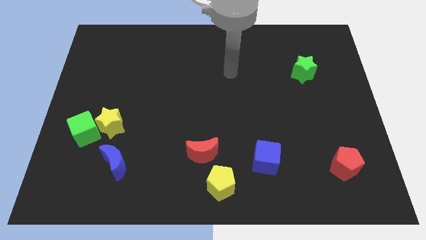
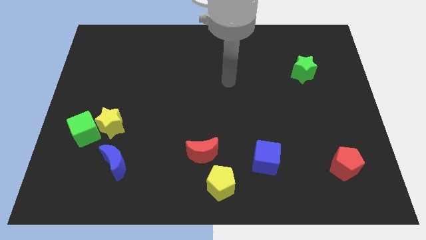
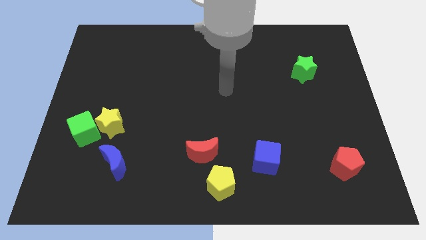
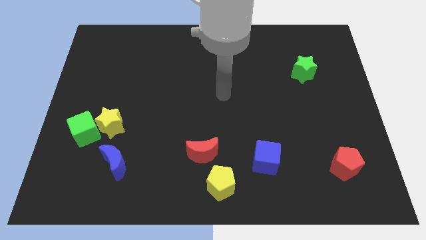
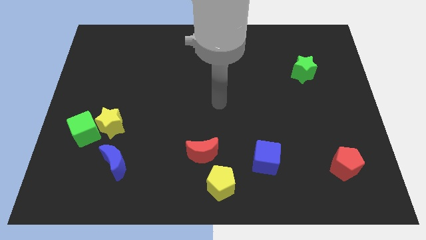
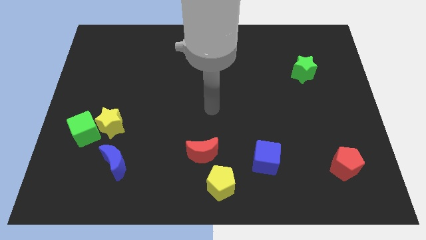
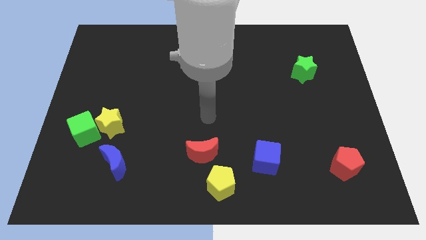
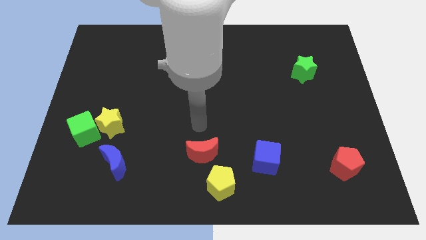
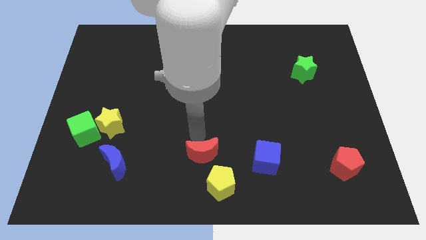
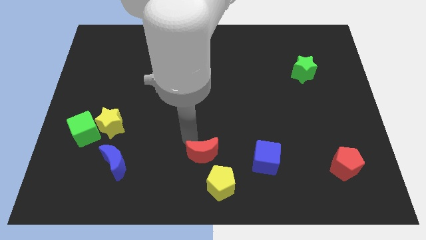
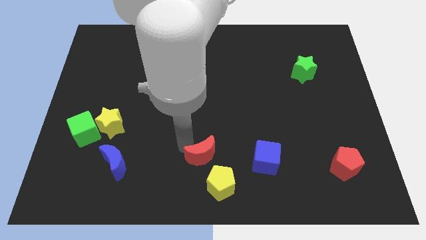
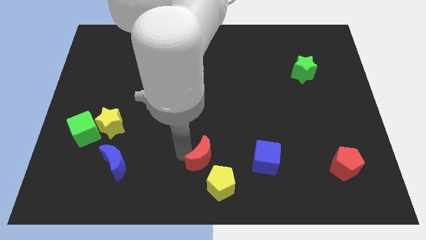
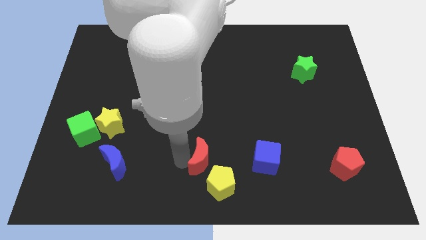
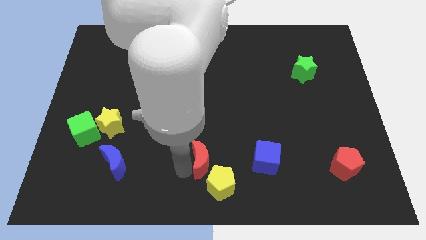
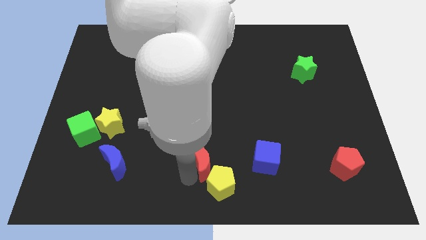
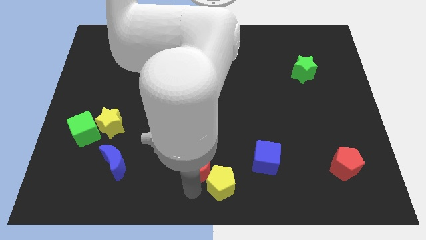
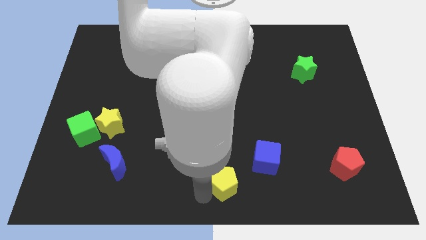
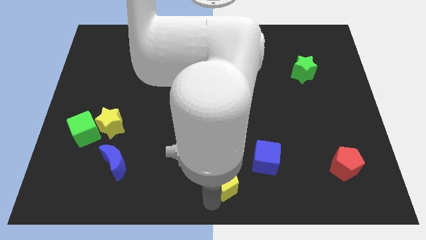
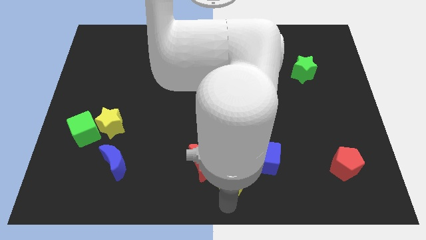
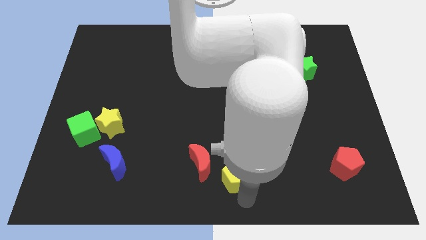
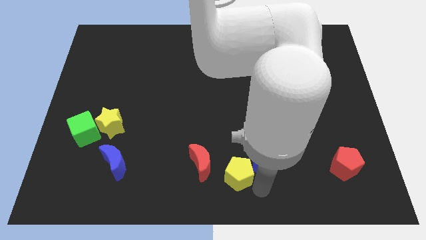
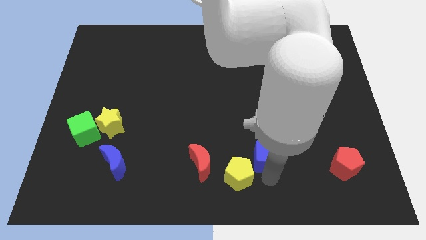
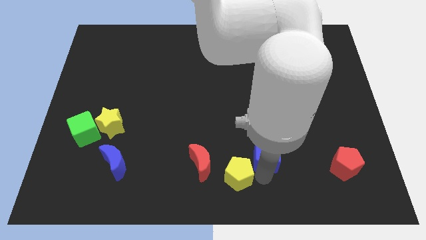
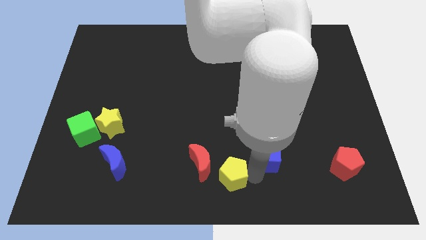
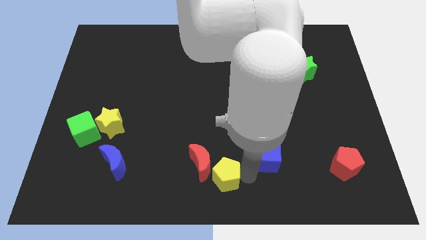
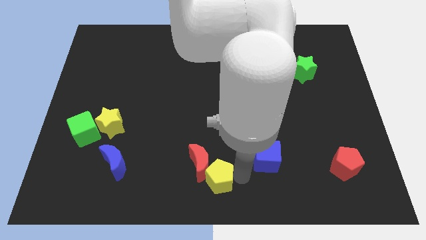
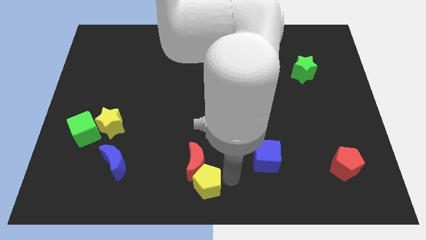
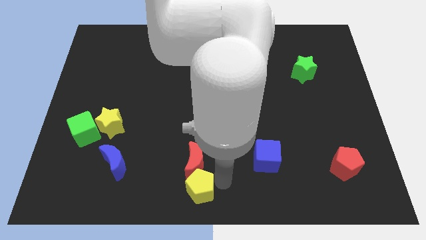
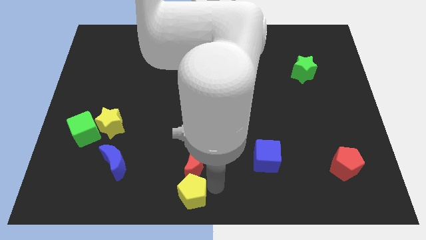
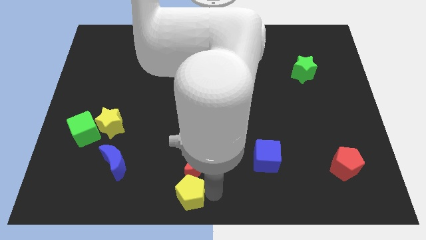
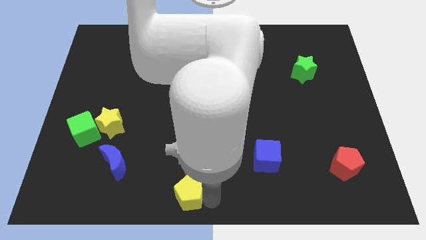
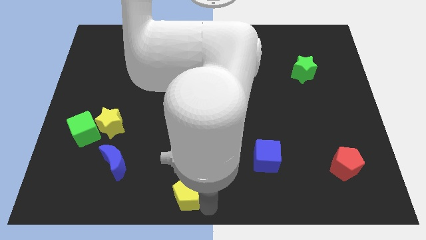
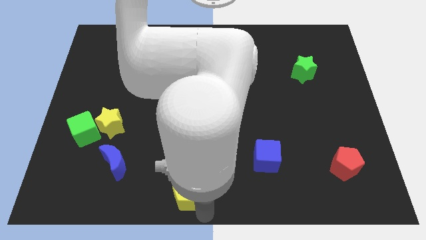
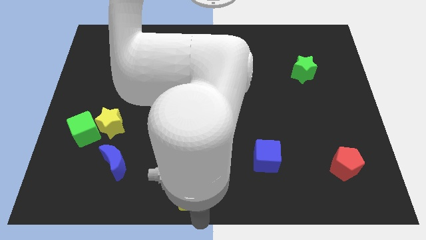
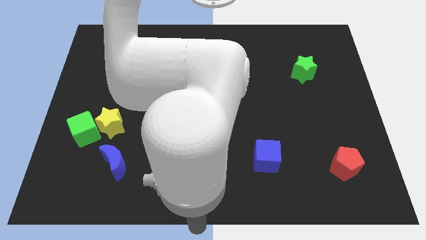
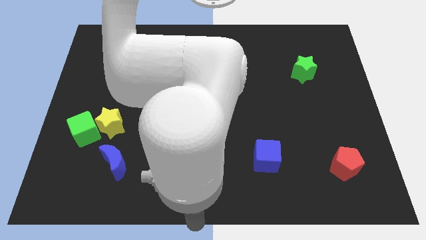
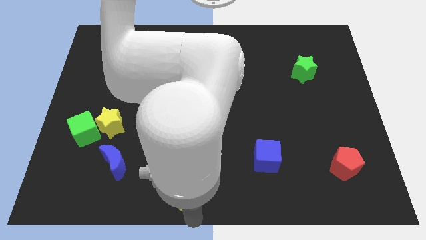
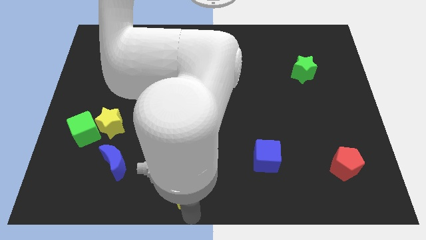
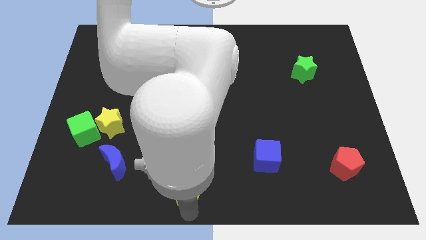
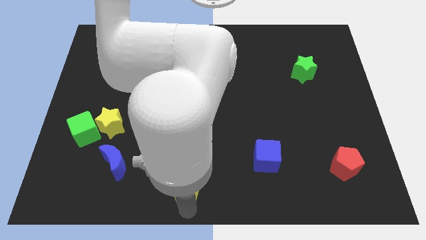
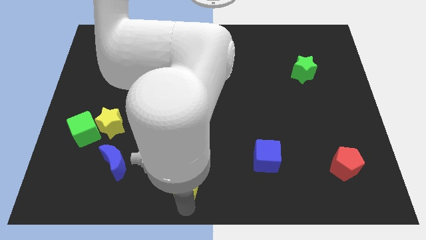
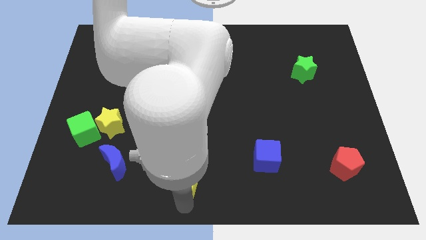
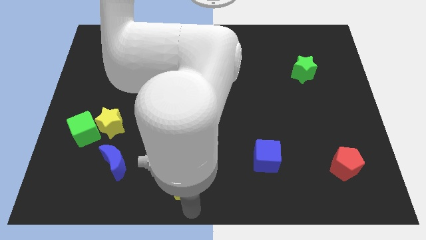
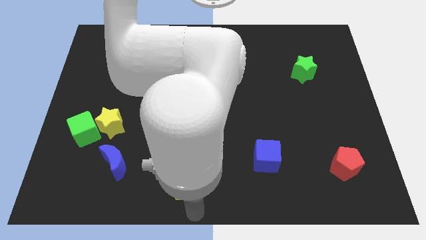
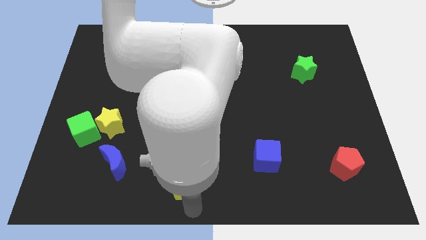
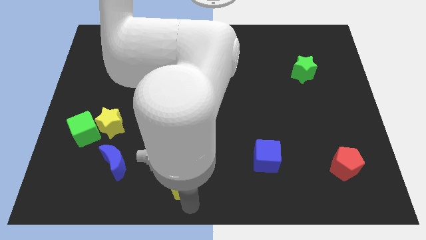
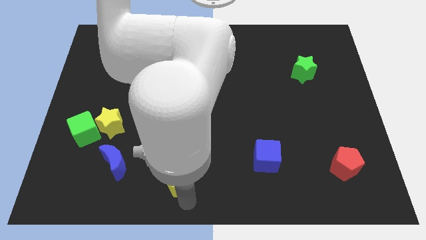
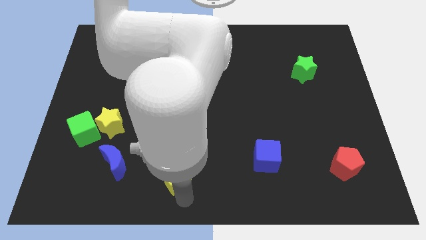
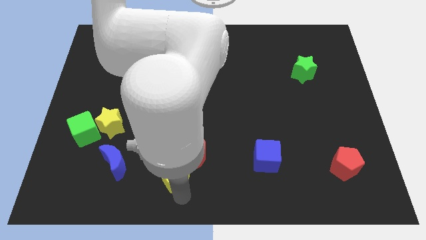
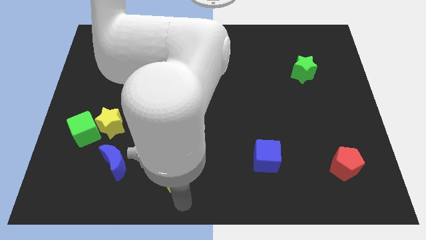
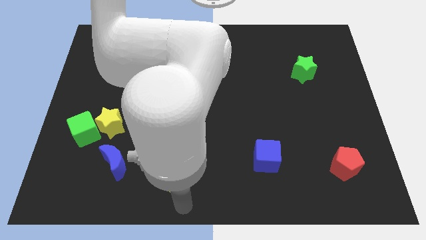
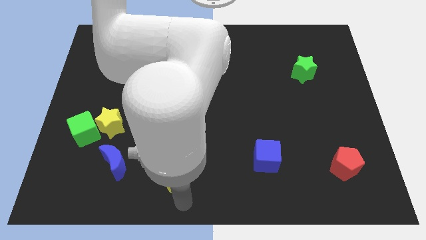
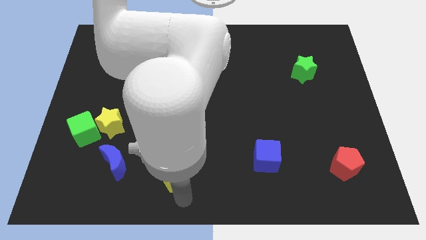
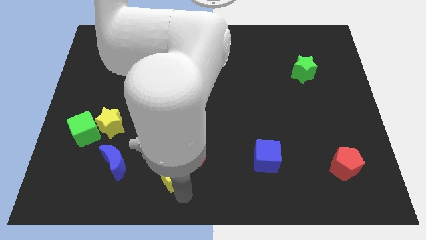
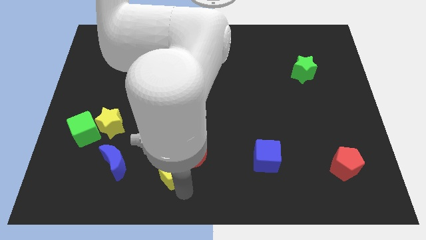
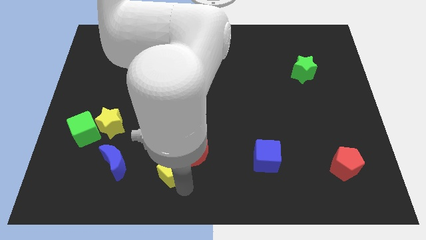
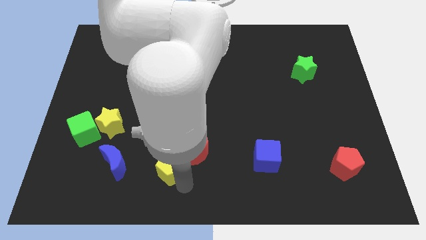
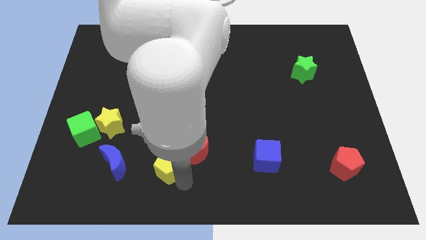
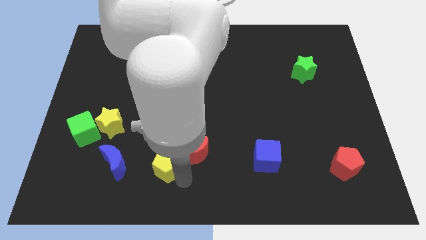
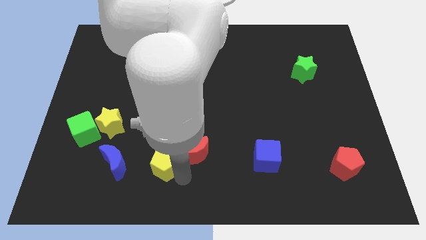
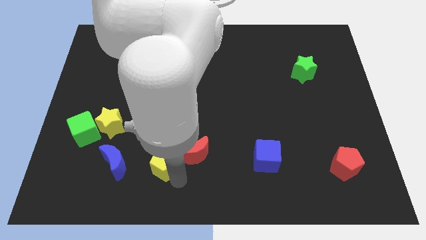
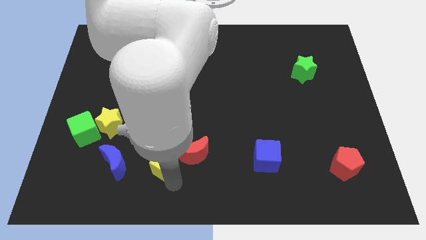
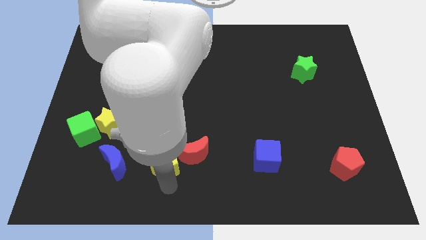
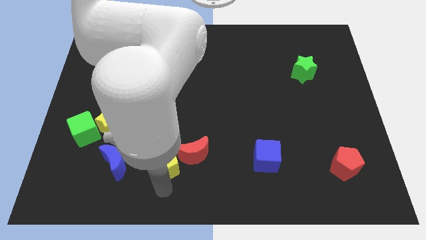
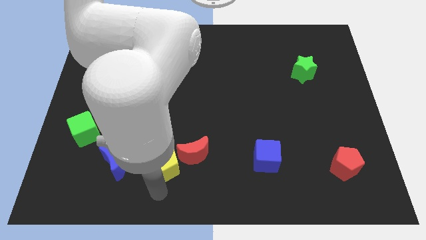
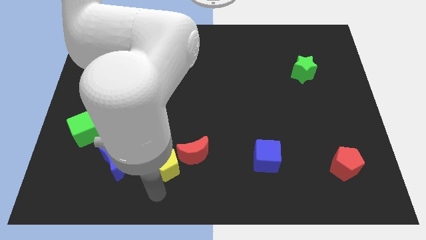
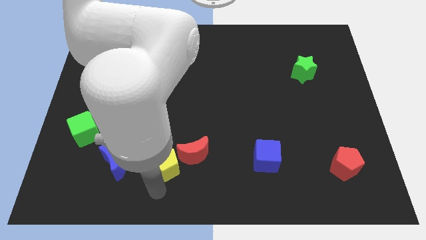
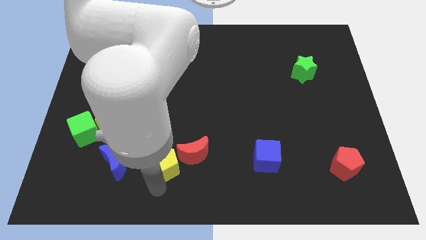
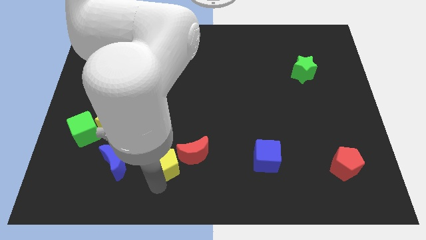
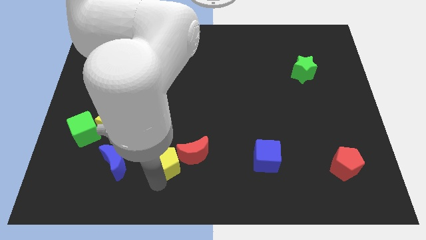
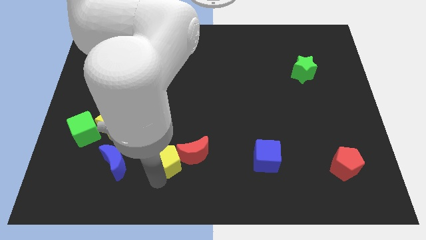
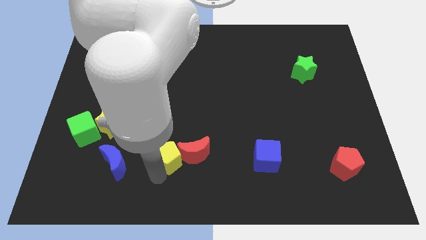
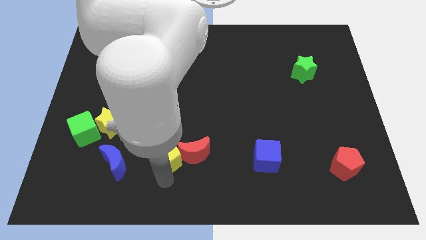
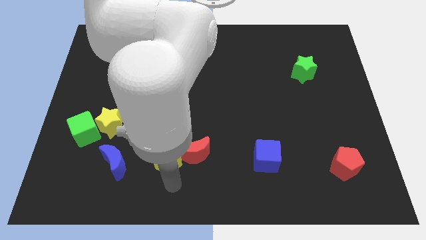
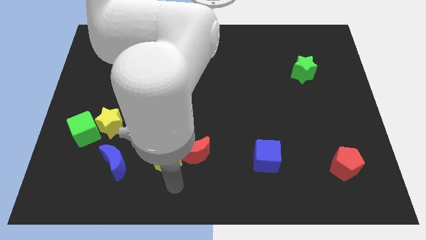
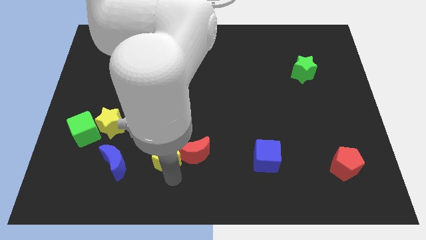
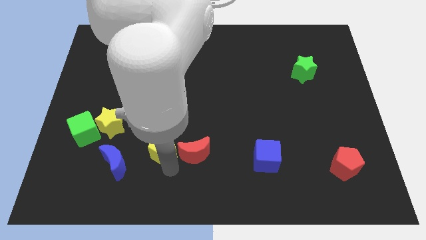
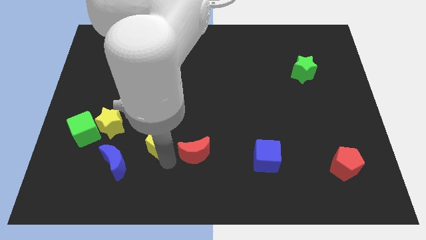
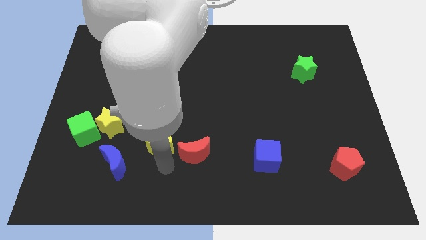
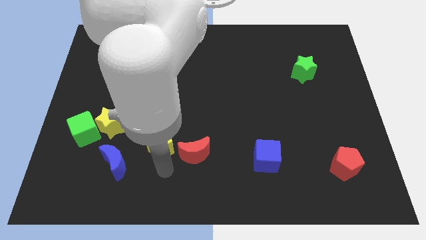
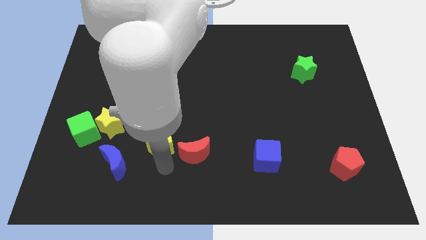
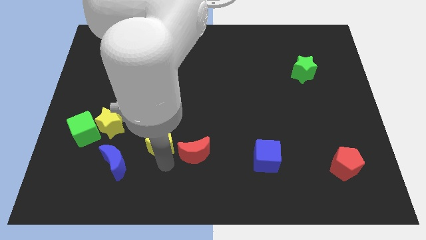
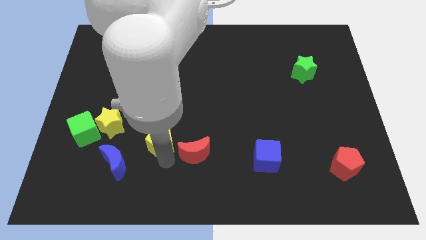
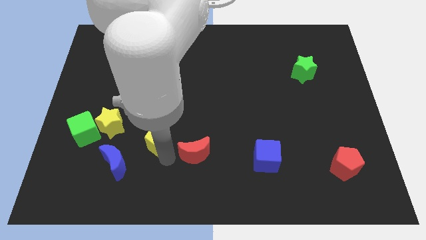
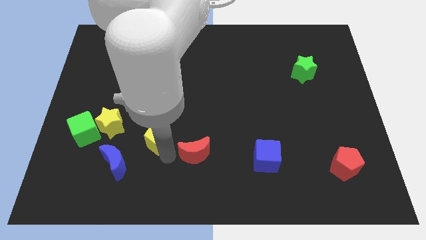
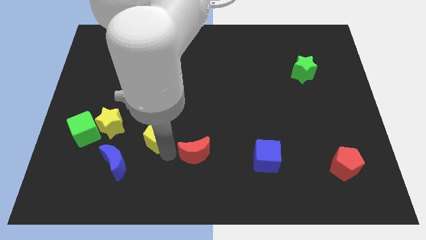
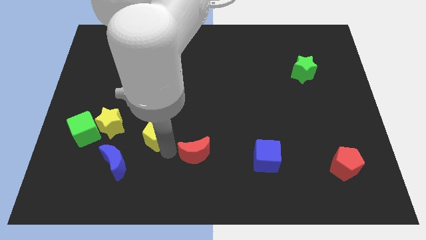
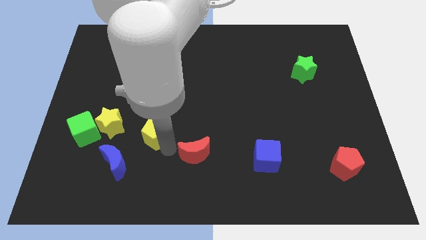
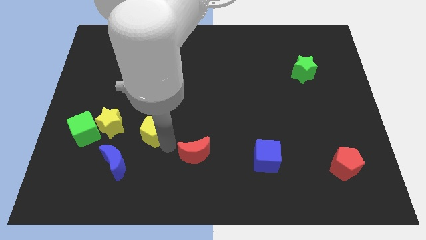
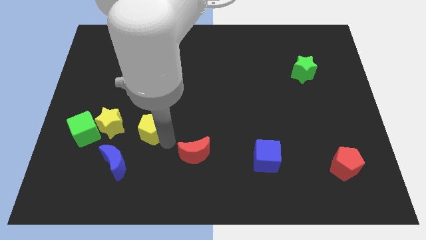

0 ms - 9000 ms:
slide the yellow pentagon diagonally up and to the left
